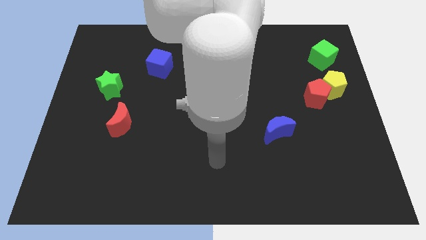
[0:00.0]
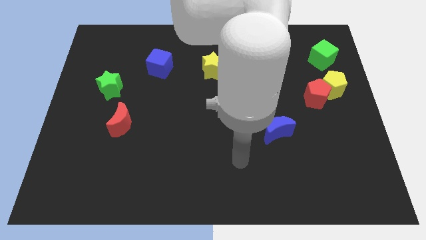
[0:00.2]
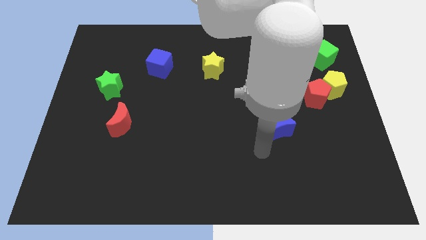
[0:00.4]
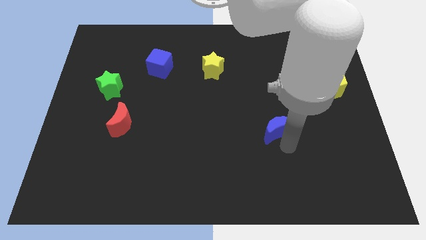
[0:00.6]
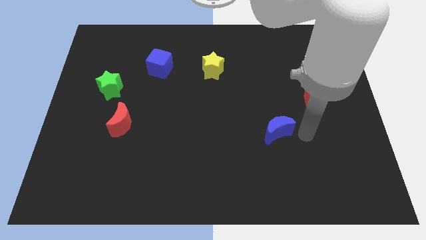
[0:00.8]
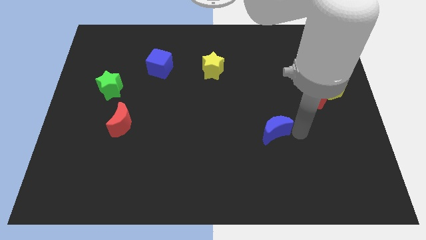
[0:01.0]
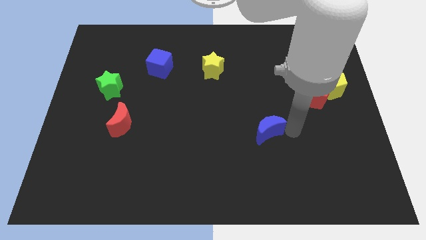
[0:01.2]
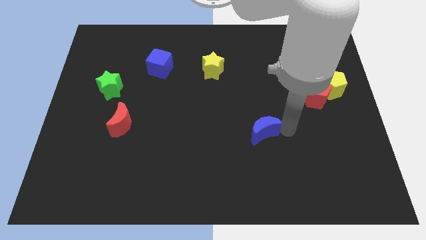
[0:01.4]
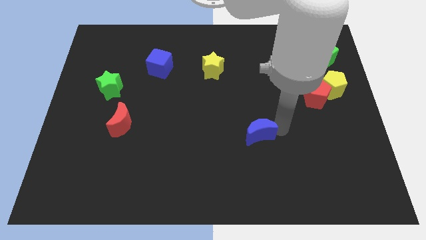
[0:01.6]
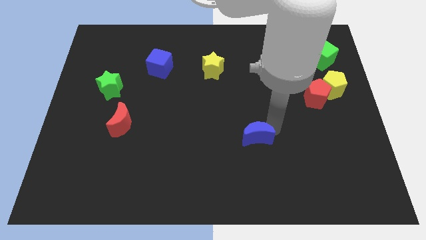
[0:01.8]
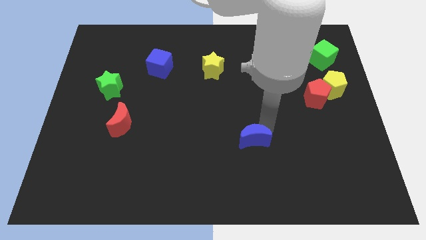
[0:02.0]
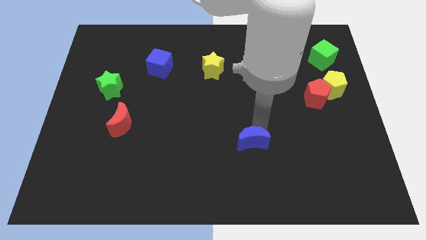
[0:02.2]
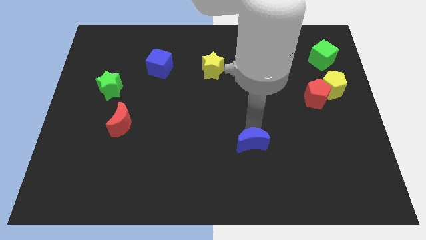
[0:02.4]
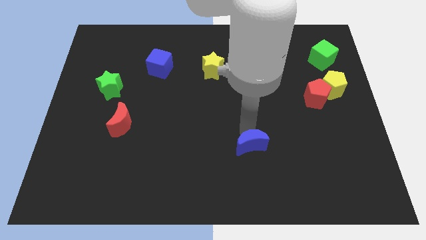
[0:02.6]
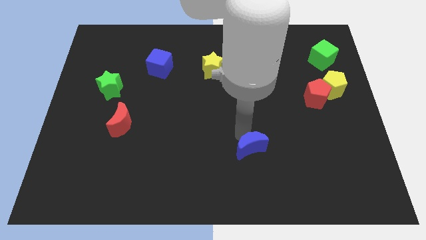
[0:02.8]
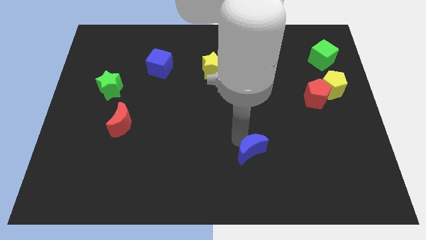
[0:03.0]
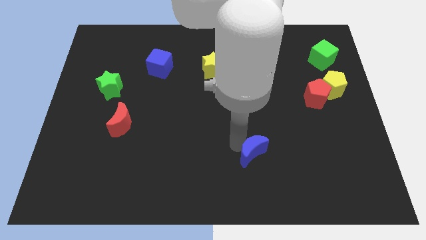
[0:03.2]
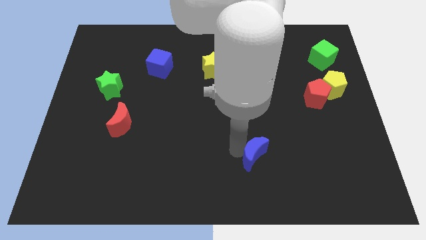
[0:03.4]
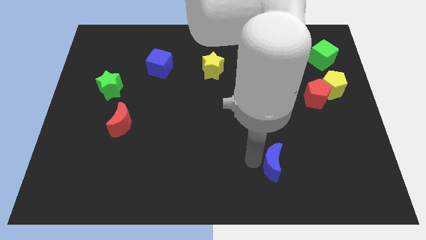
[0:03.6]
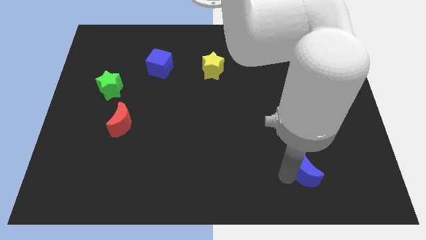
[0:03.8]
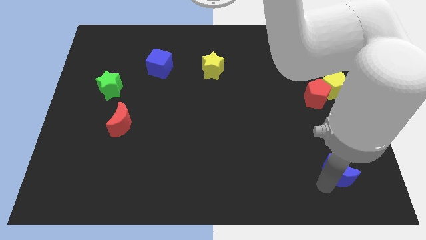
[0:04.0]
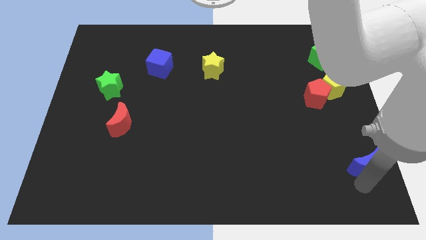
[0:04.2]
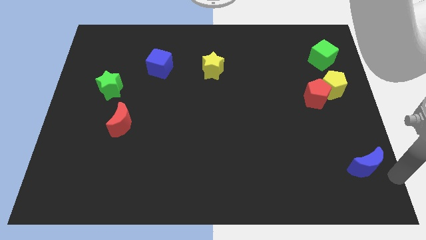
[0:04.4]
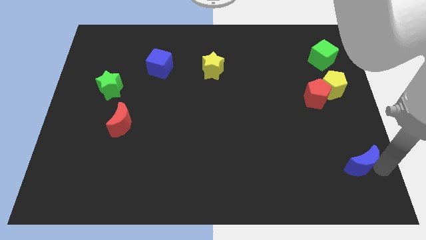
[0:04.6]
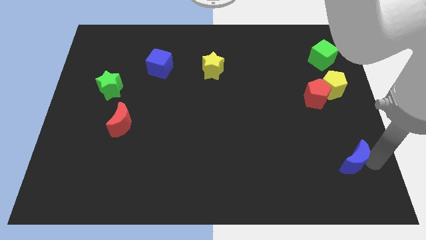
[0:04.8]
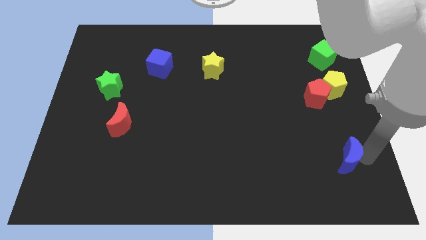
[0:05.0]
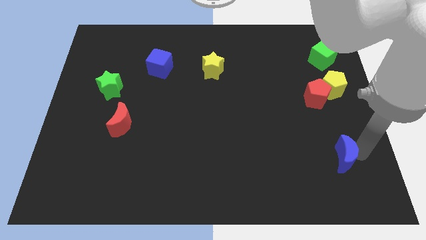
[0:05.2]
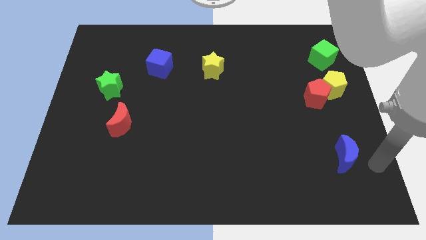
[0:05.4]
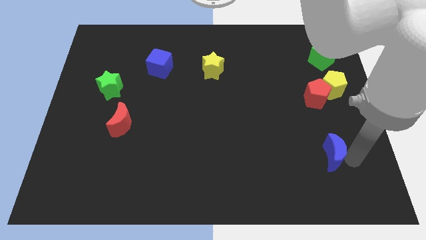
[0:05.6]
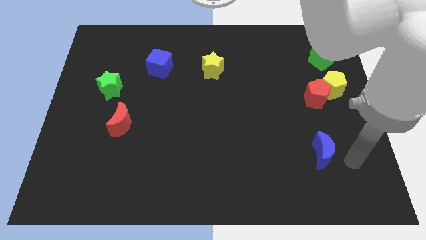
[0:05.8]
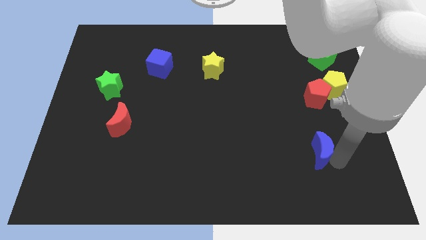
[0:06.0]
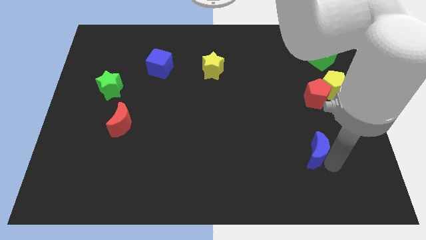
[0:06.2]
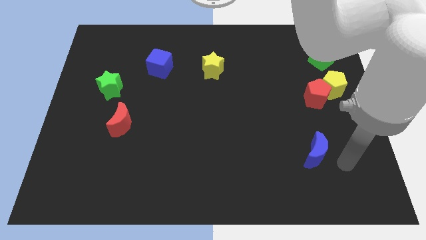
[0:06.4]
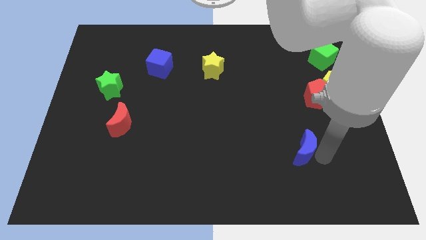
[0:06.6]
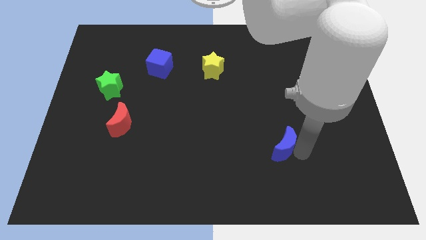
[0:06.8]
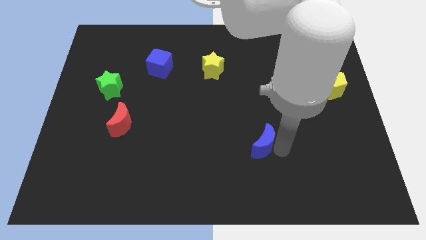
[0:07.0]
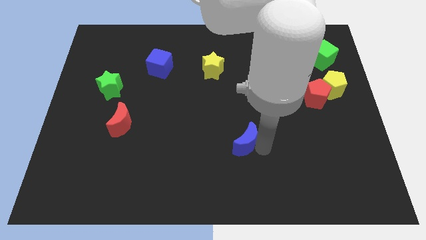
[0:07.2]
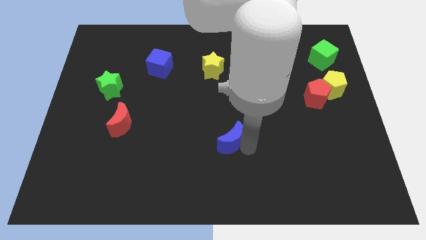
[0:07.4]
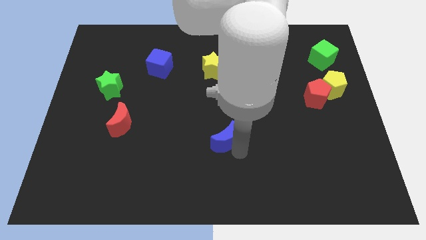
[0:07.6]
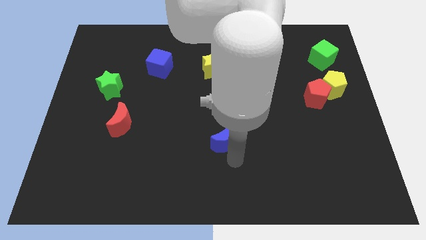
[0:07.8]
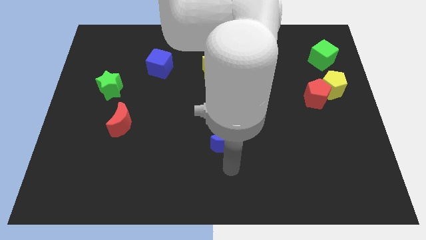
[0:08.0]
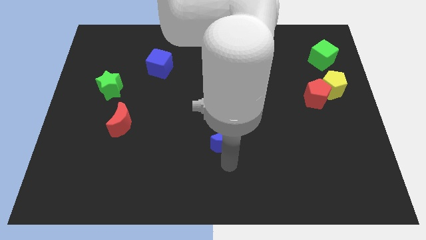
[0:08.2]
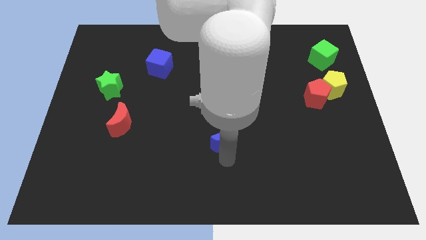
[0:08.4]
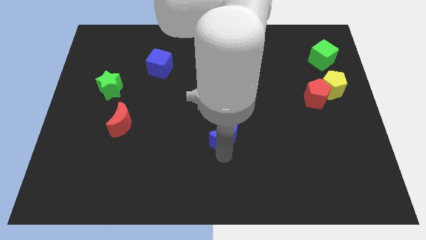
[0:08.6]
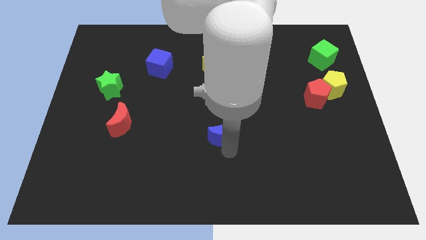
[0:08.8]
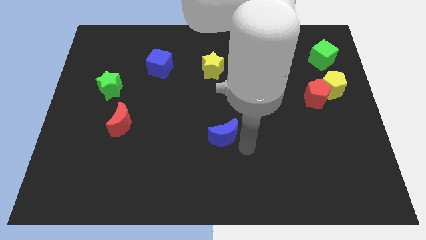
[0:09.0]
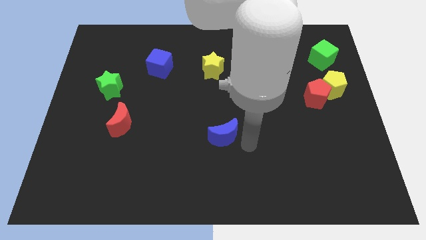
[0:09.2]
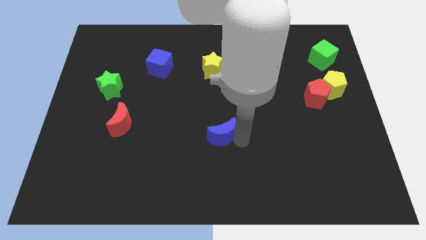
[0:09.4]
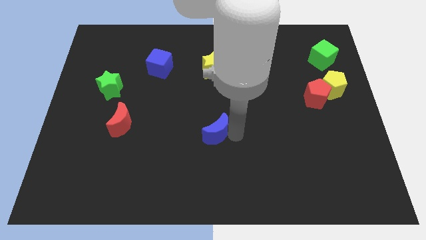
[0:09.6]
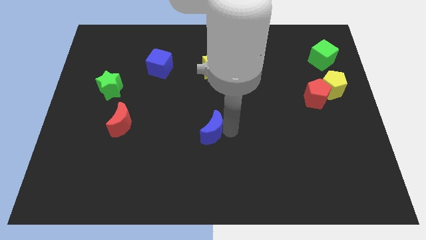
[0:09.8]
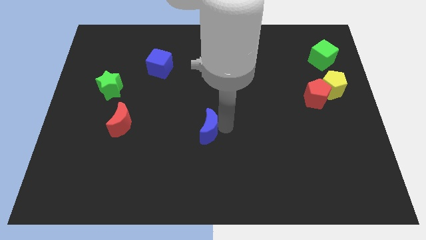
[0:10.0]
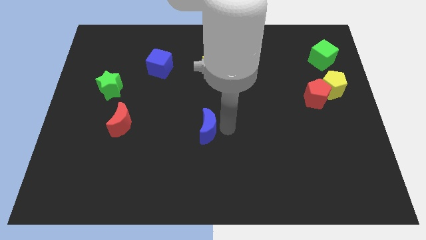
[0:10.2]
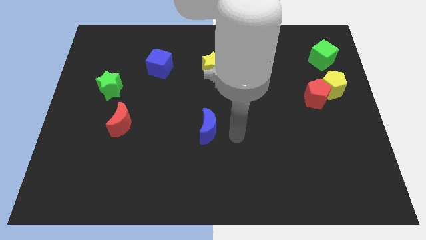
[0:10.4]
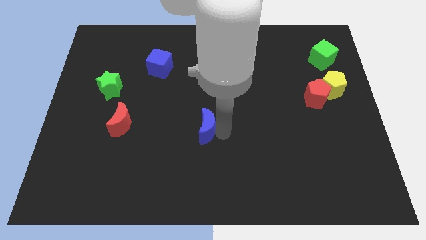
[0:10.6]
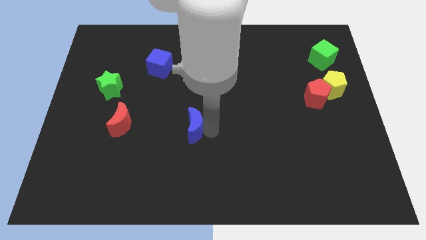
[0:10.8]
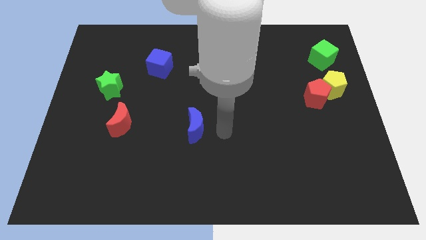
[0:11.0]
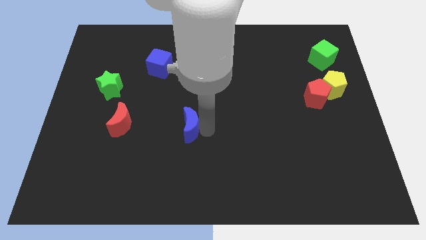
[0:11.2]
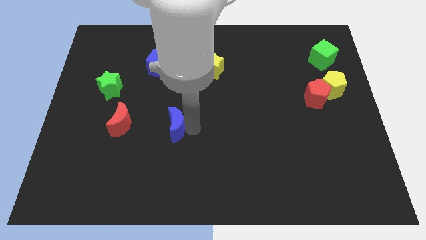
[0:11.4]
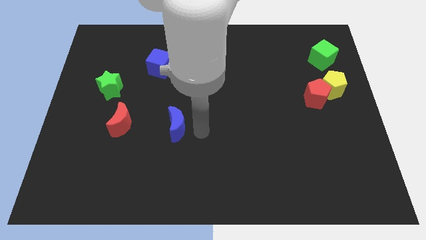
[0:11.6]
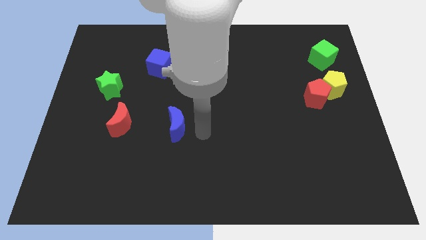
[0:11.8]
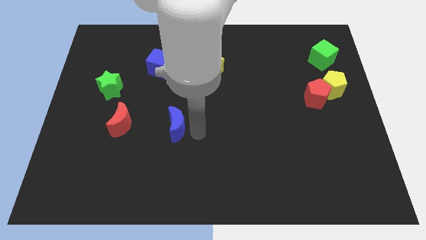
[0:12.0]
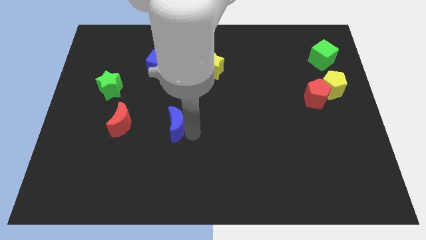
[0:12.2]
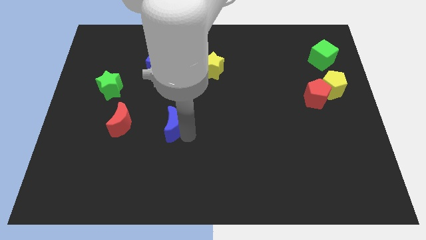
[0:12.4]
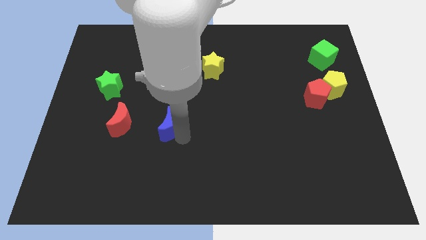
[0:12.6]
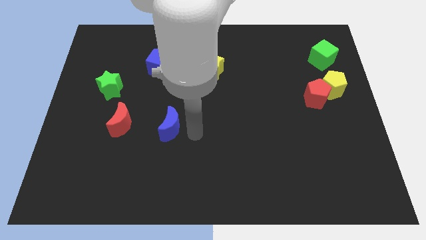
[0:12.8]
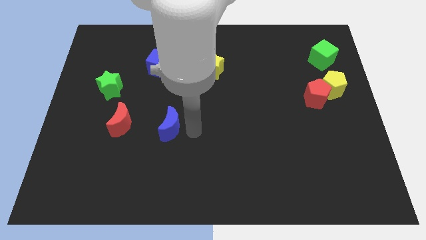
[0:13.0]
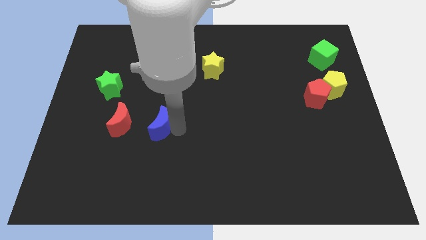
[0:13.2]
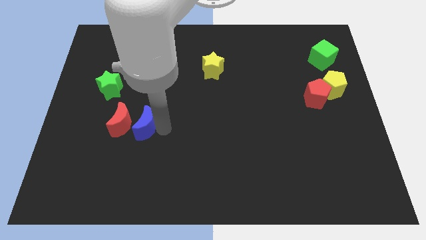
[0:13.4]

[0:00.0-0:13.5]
move the blue moon to the red moon

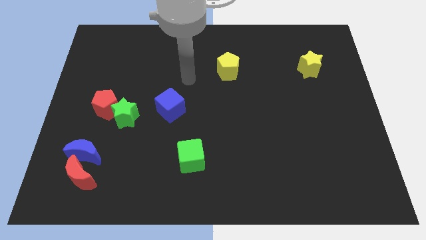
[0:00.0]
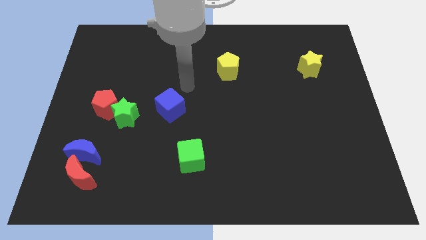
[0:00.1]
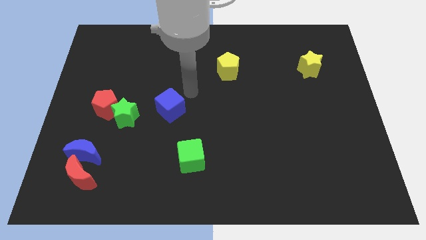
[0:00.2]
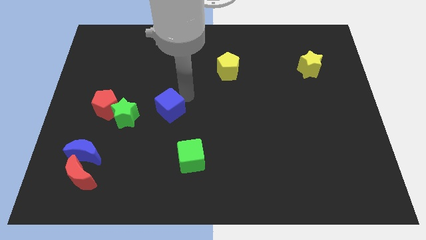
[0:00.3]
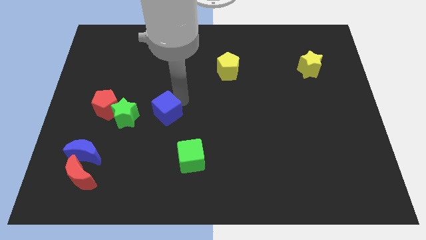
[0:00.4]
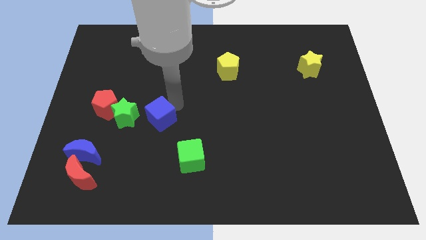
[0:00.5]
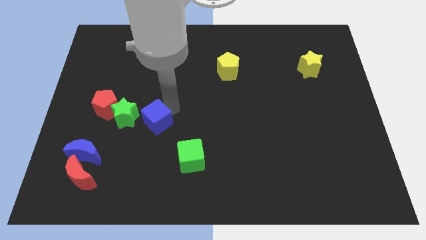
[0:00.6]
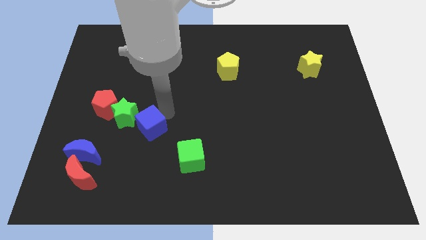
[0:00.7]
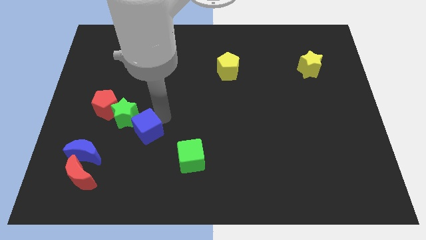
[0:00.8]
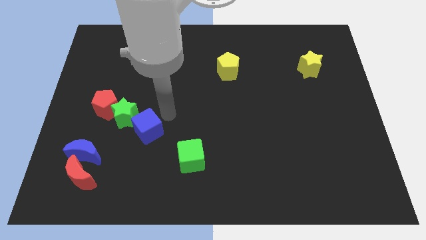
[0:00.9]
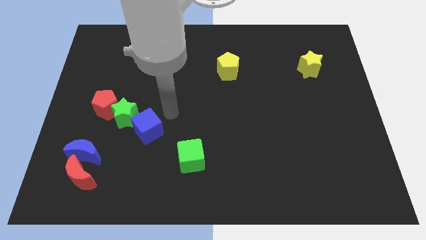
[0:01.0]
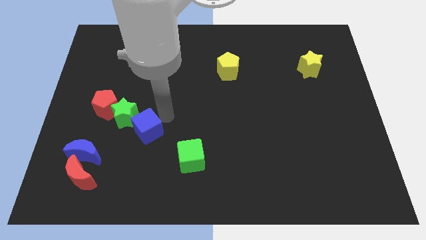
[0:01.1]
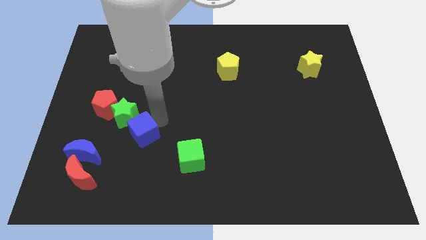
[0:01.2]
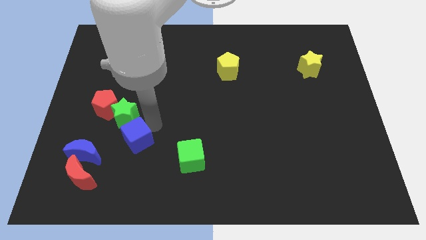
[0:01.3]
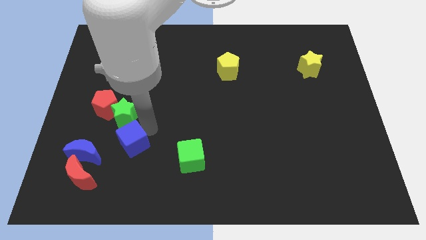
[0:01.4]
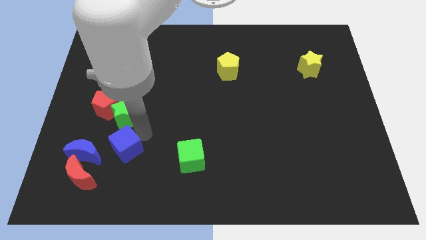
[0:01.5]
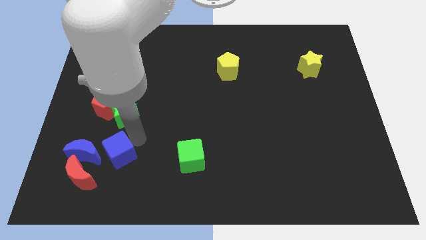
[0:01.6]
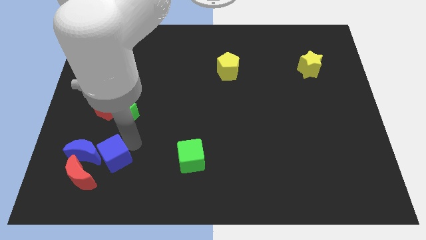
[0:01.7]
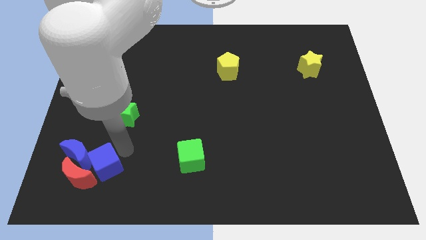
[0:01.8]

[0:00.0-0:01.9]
put the blue cube towards the red moon
